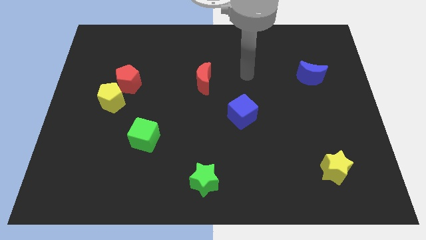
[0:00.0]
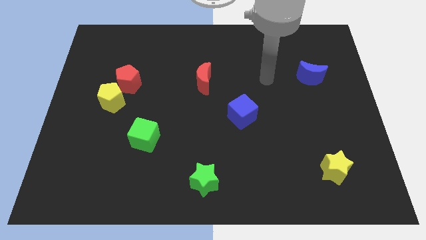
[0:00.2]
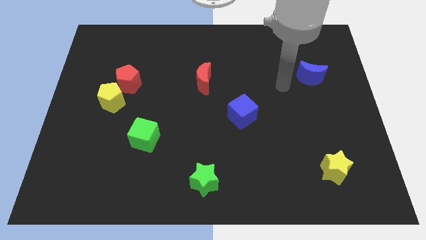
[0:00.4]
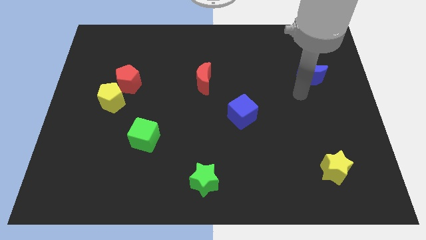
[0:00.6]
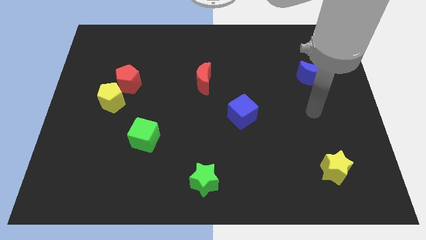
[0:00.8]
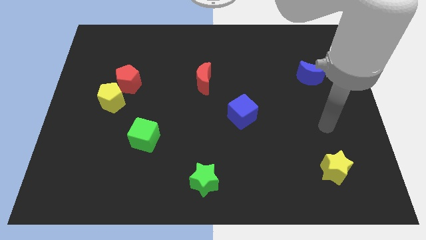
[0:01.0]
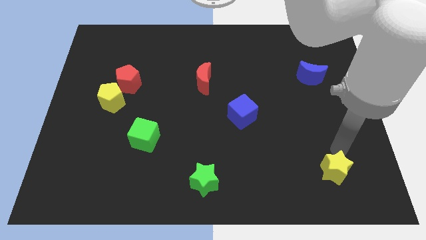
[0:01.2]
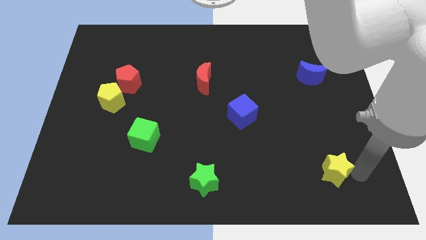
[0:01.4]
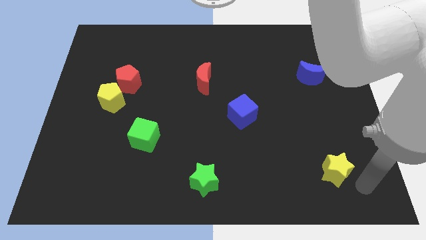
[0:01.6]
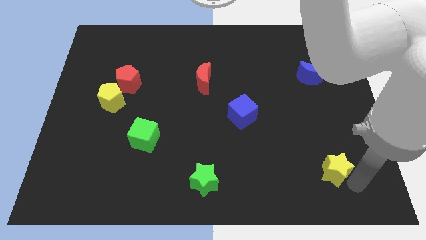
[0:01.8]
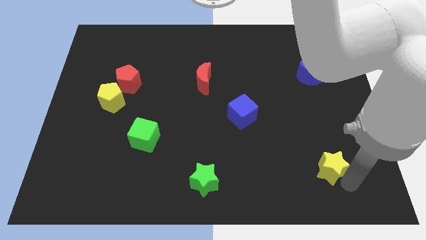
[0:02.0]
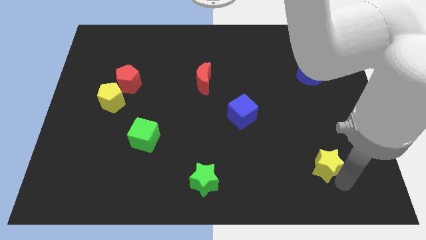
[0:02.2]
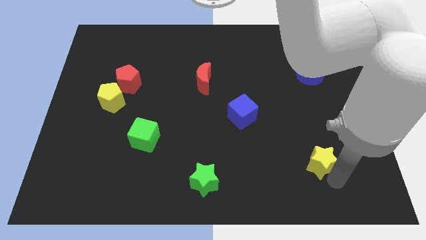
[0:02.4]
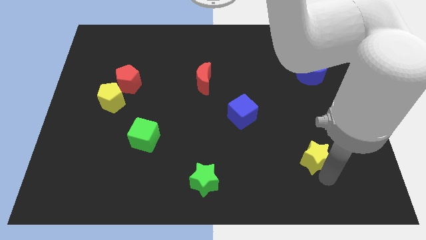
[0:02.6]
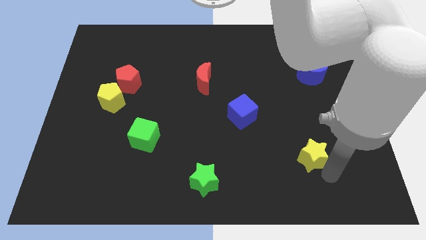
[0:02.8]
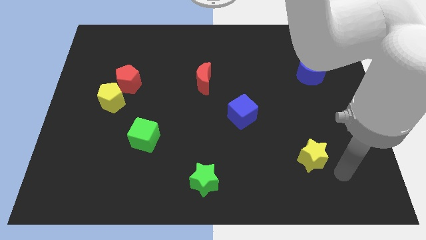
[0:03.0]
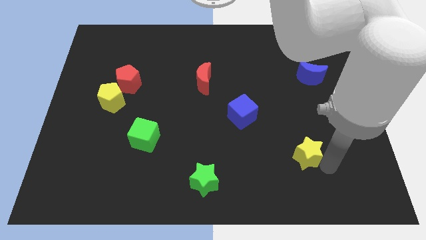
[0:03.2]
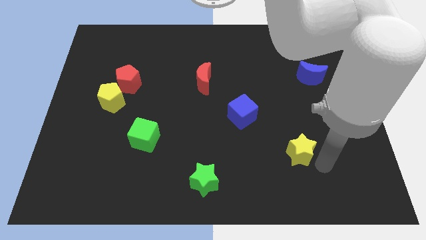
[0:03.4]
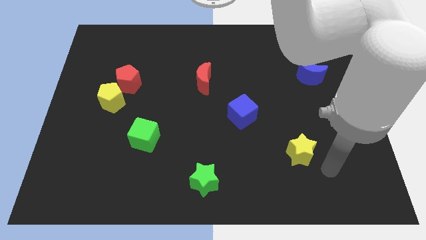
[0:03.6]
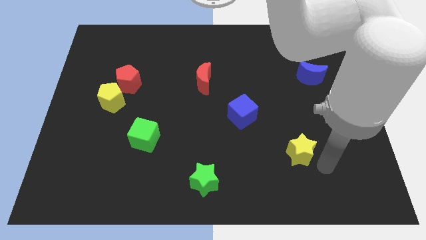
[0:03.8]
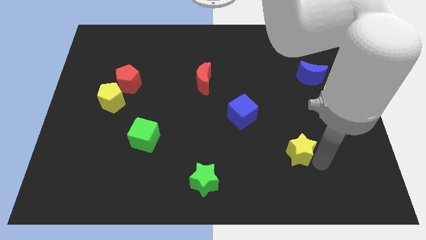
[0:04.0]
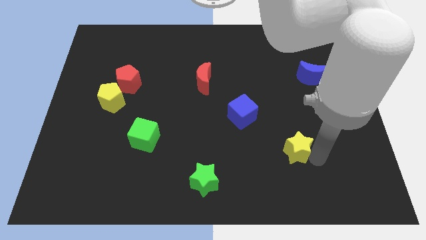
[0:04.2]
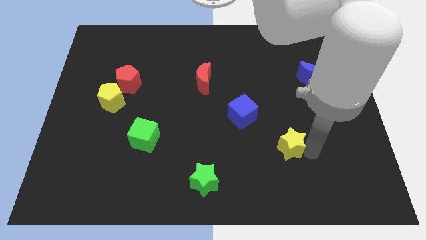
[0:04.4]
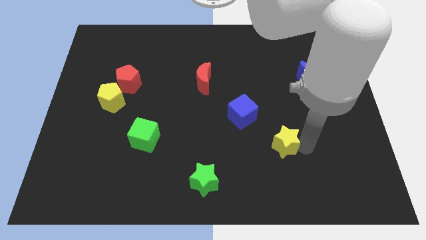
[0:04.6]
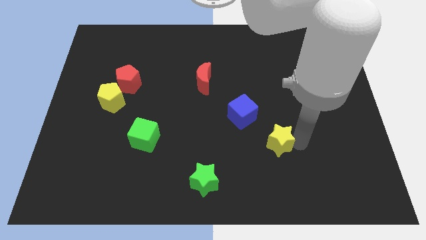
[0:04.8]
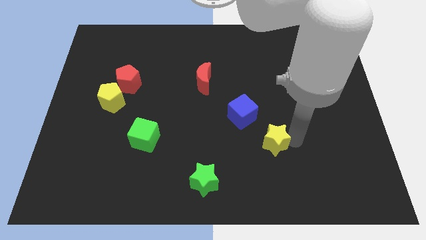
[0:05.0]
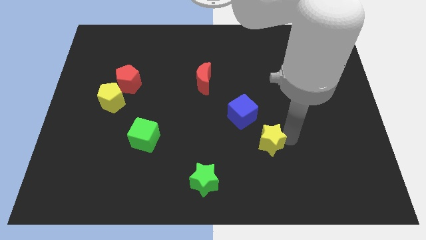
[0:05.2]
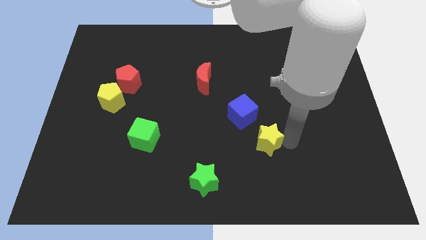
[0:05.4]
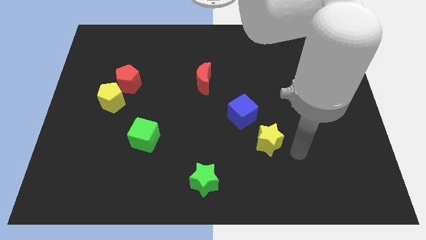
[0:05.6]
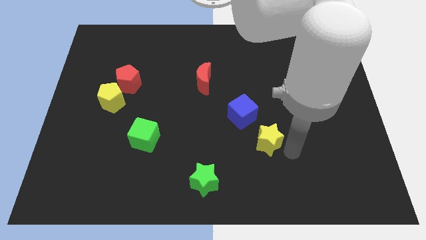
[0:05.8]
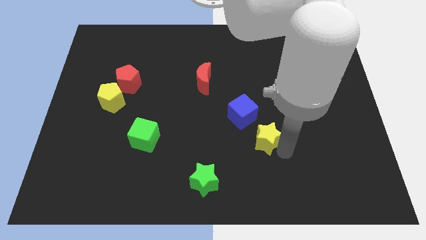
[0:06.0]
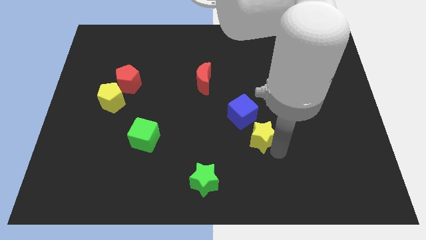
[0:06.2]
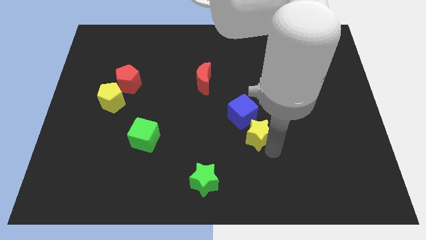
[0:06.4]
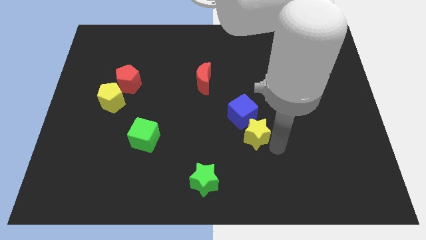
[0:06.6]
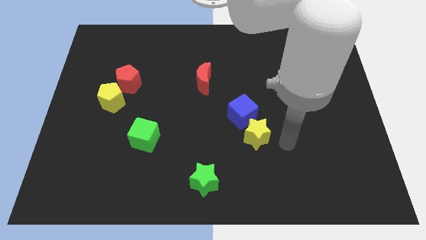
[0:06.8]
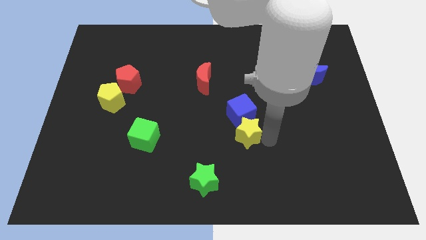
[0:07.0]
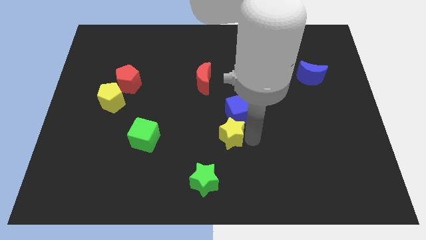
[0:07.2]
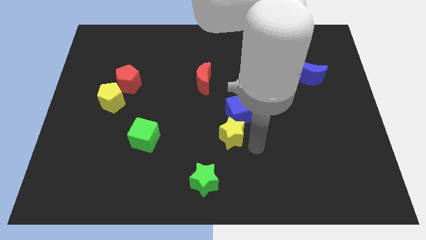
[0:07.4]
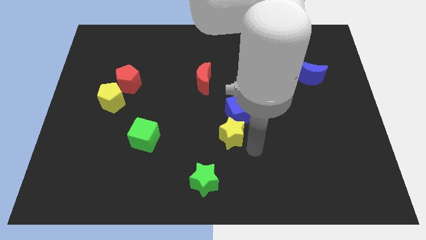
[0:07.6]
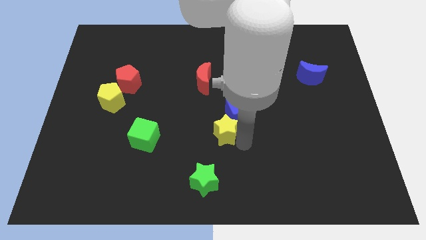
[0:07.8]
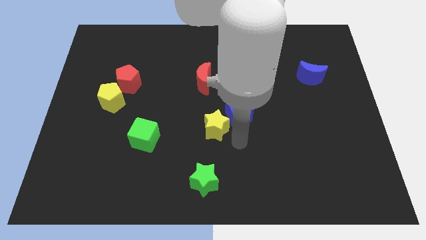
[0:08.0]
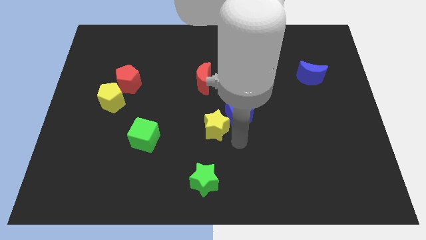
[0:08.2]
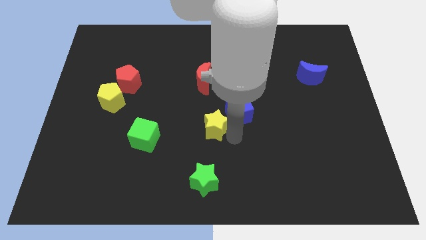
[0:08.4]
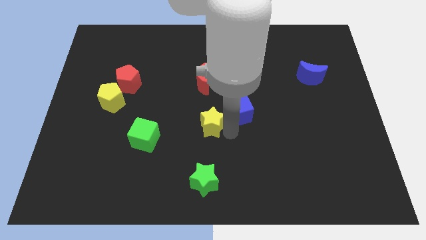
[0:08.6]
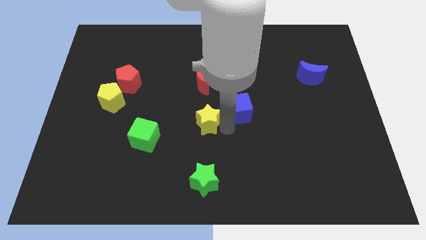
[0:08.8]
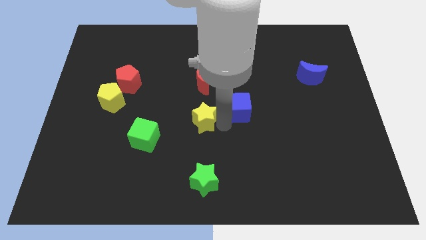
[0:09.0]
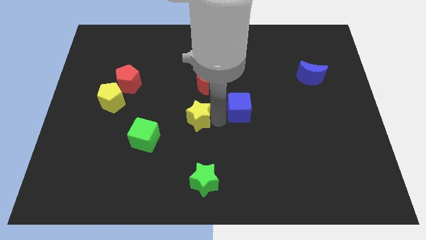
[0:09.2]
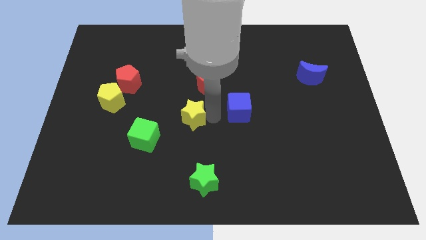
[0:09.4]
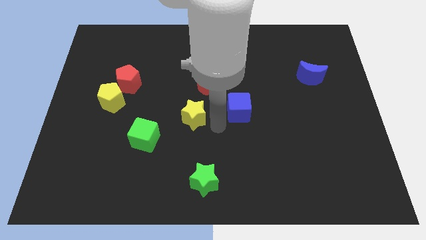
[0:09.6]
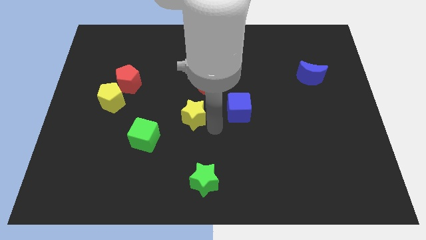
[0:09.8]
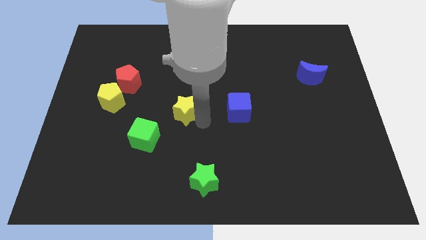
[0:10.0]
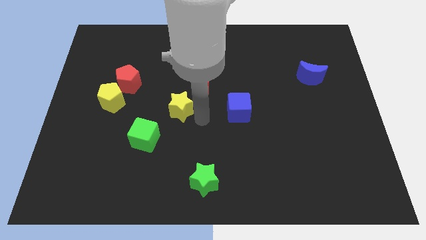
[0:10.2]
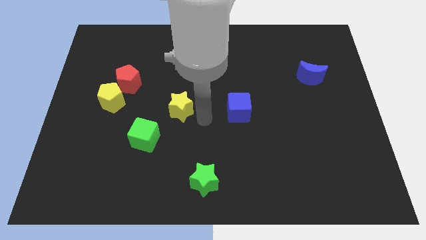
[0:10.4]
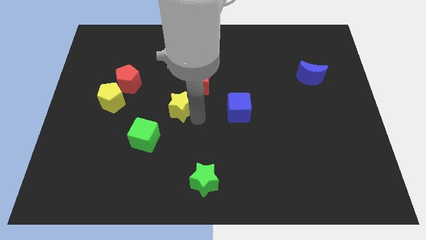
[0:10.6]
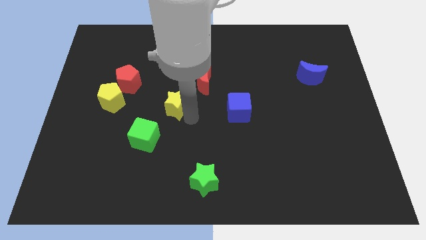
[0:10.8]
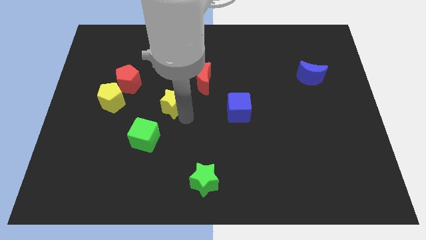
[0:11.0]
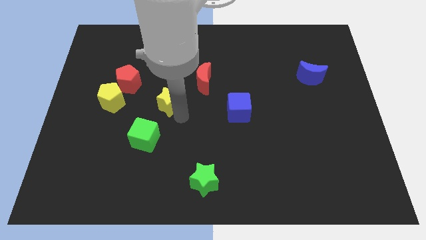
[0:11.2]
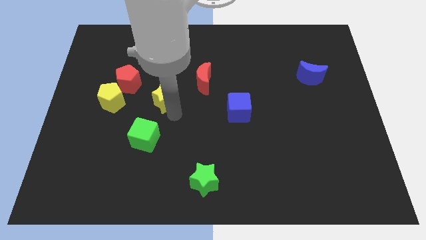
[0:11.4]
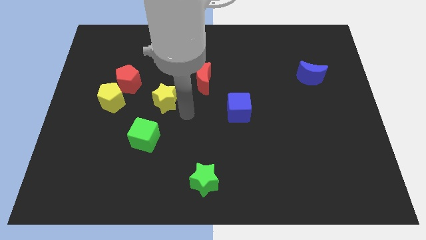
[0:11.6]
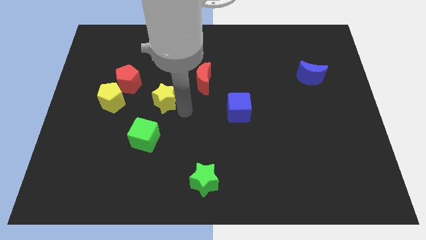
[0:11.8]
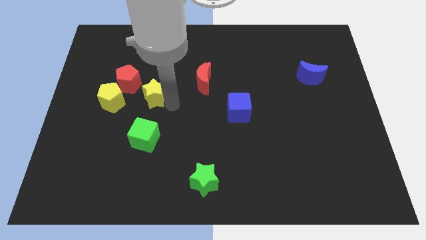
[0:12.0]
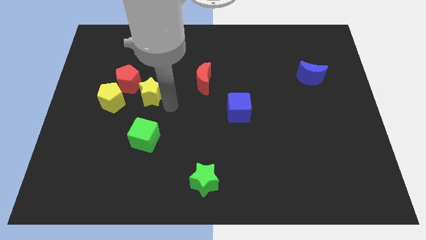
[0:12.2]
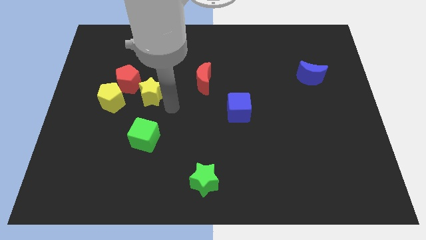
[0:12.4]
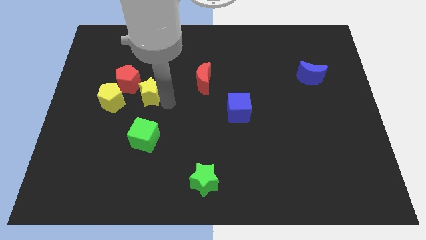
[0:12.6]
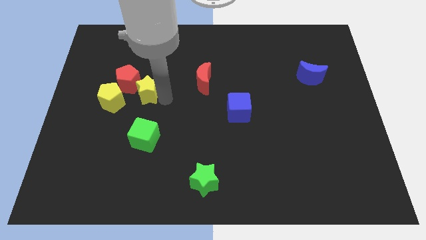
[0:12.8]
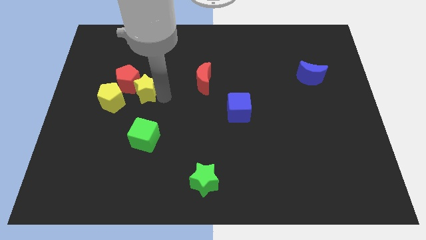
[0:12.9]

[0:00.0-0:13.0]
put the yellow star close to the red pentagon

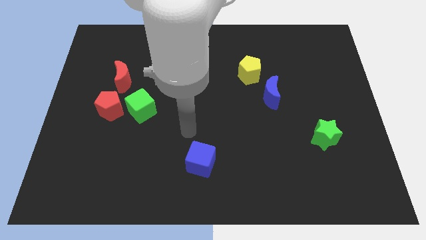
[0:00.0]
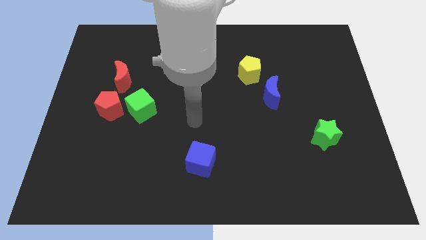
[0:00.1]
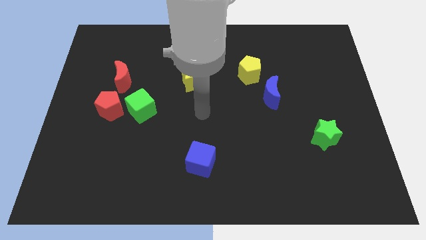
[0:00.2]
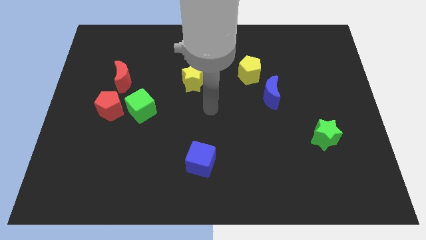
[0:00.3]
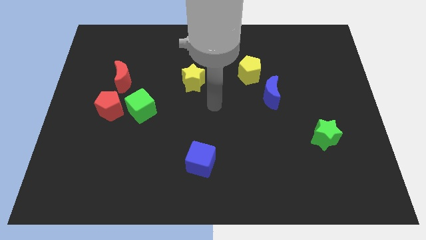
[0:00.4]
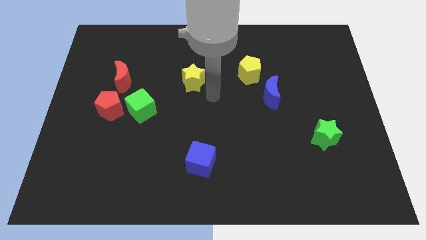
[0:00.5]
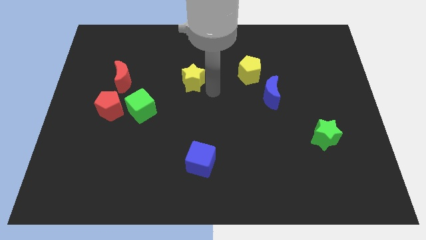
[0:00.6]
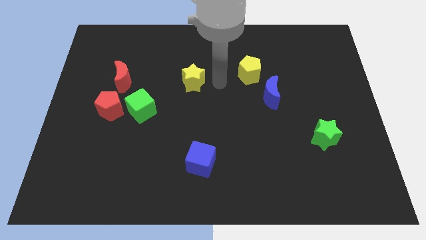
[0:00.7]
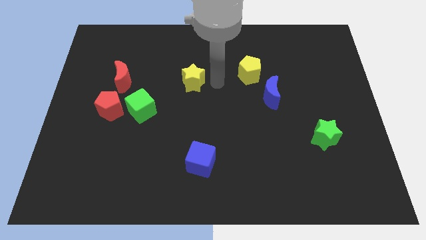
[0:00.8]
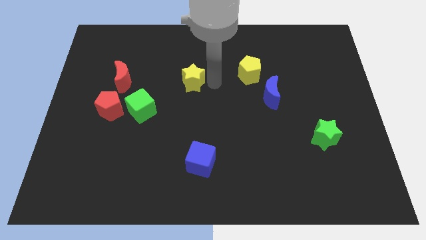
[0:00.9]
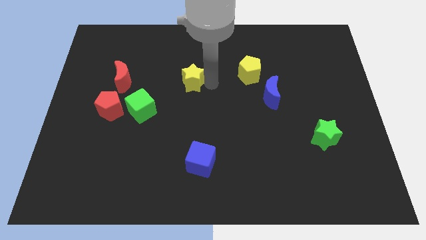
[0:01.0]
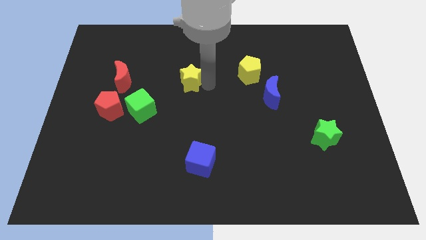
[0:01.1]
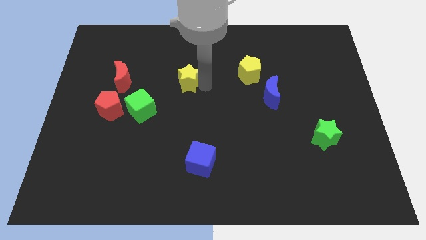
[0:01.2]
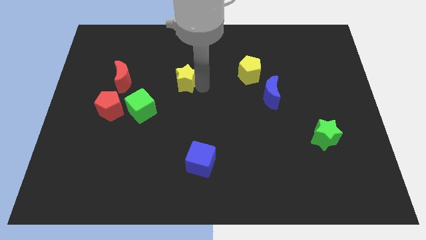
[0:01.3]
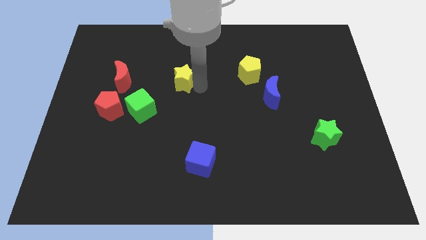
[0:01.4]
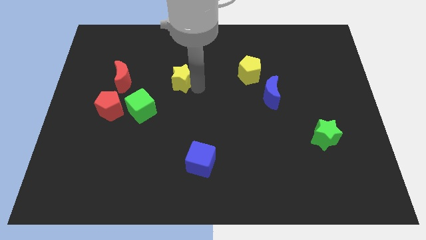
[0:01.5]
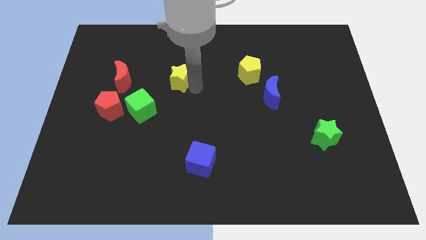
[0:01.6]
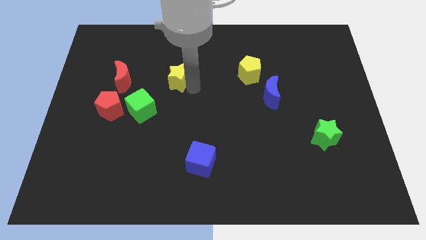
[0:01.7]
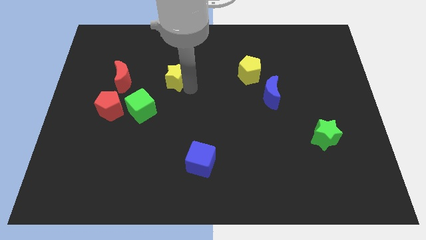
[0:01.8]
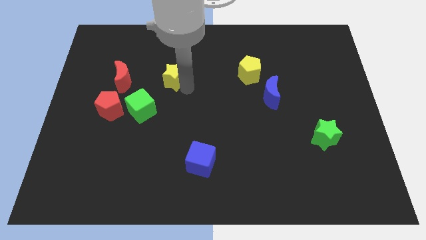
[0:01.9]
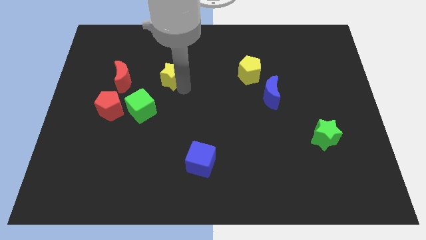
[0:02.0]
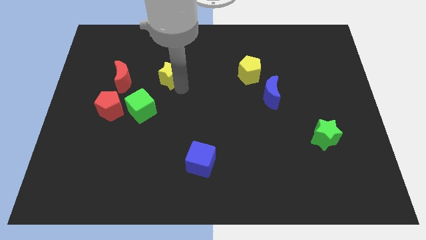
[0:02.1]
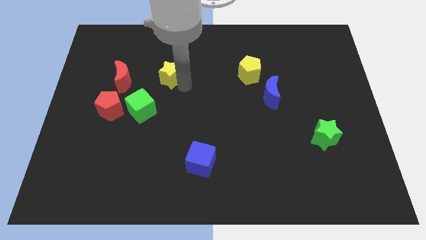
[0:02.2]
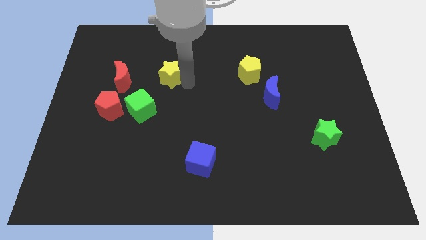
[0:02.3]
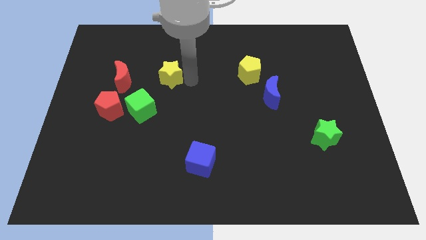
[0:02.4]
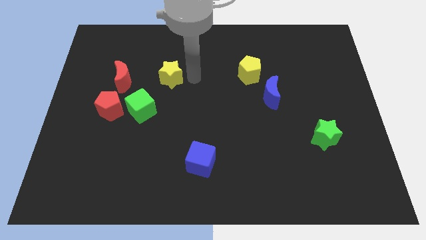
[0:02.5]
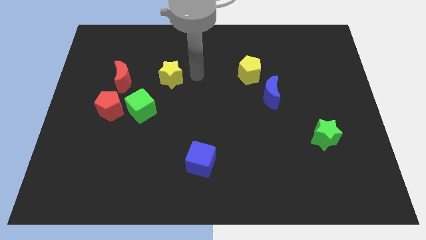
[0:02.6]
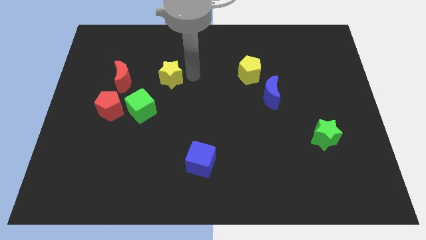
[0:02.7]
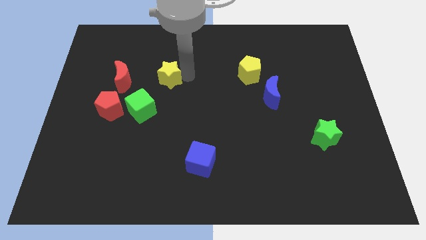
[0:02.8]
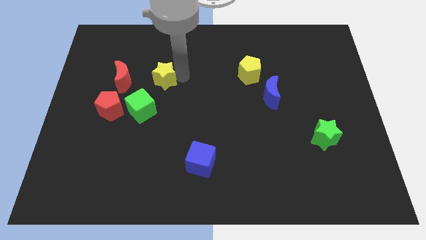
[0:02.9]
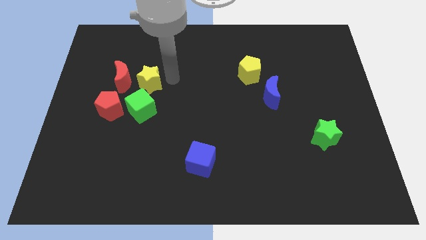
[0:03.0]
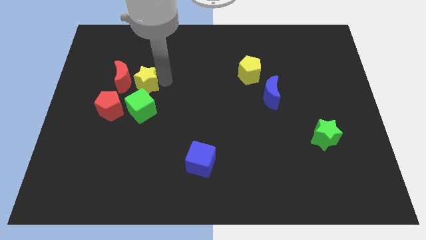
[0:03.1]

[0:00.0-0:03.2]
push the yellow star to the red moon
